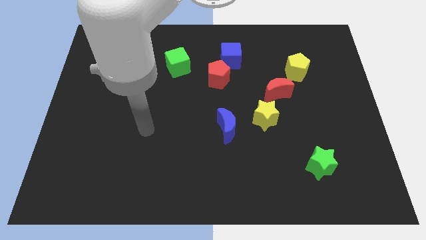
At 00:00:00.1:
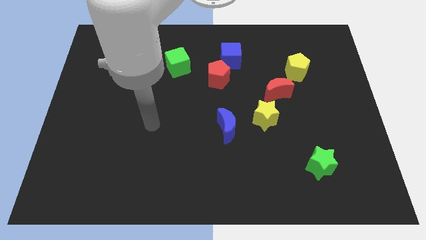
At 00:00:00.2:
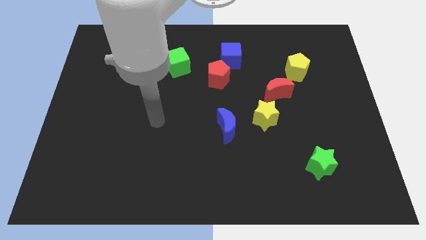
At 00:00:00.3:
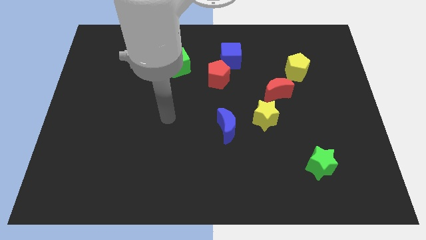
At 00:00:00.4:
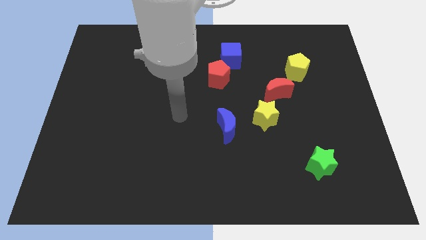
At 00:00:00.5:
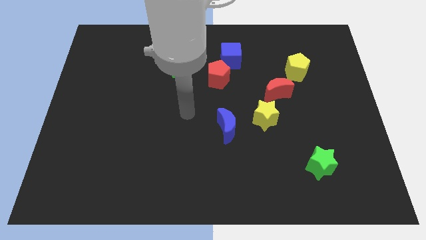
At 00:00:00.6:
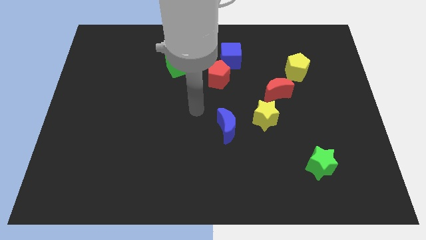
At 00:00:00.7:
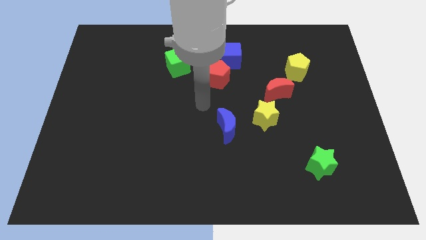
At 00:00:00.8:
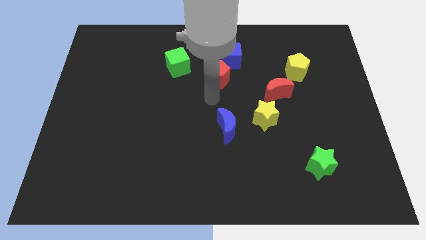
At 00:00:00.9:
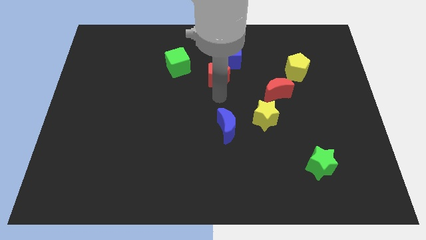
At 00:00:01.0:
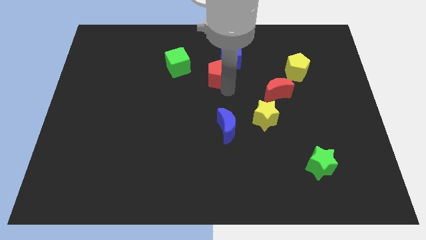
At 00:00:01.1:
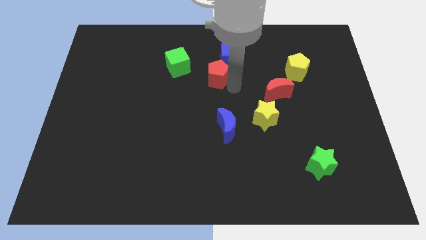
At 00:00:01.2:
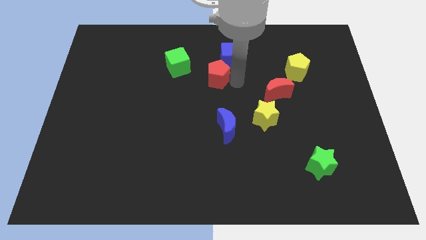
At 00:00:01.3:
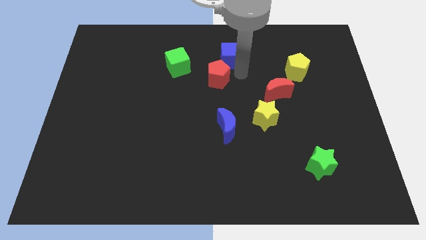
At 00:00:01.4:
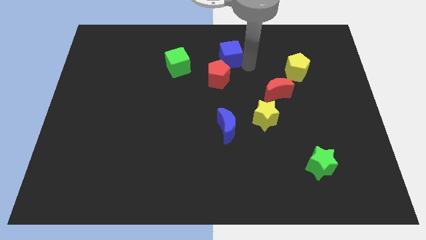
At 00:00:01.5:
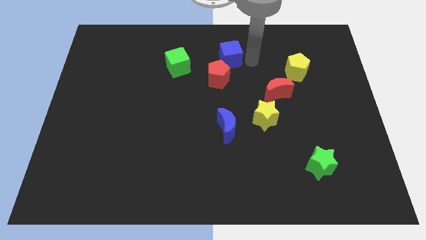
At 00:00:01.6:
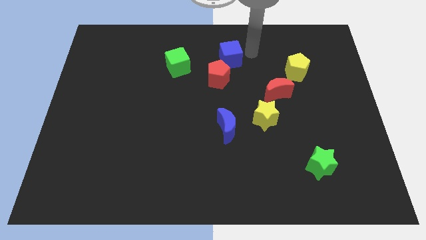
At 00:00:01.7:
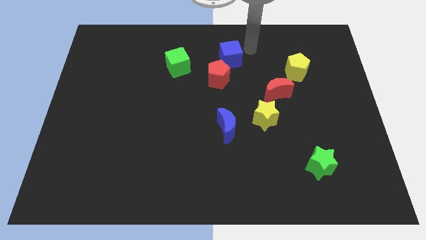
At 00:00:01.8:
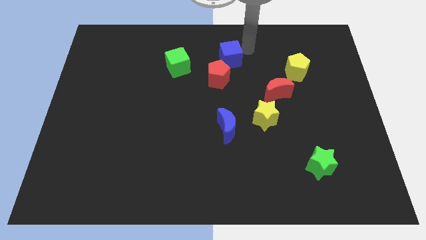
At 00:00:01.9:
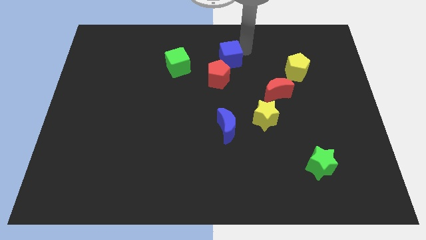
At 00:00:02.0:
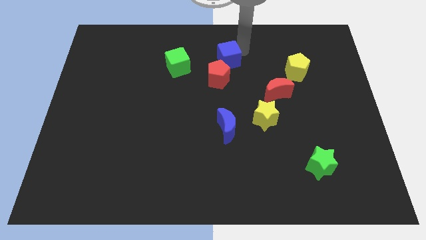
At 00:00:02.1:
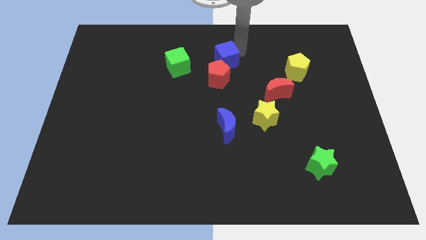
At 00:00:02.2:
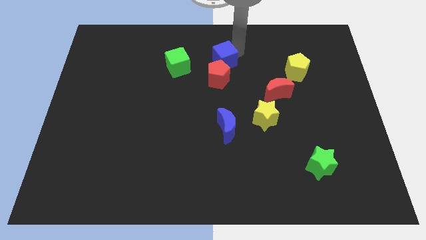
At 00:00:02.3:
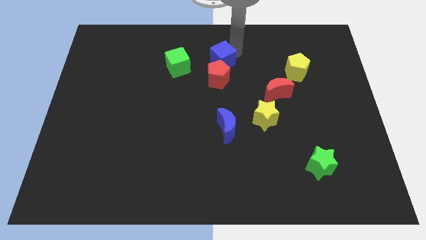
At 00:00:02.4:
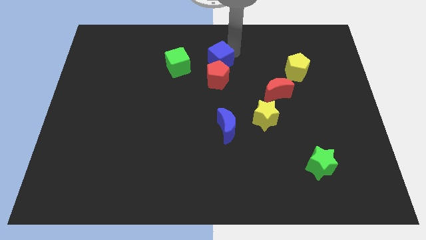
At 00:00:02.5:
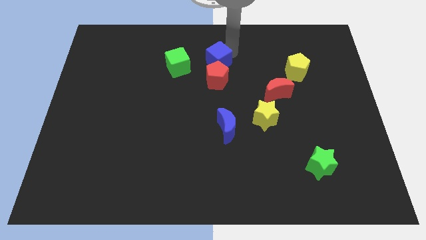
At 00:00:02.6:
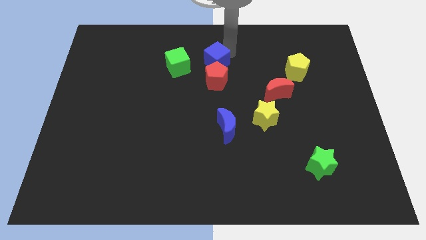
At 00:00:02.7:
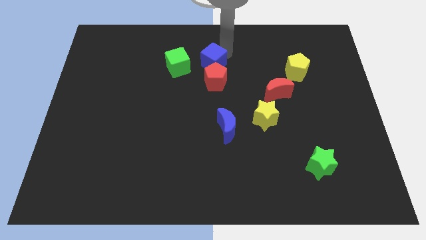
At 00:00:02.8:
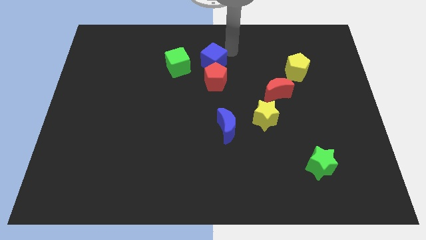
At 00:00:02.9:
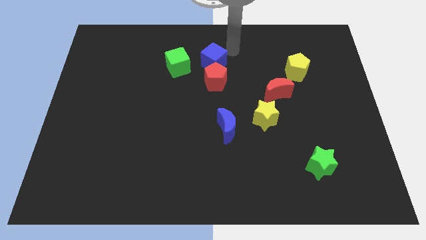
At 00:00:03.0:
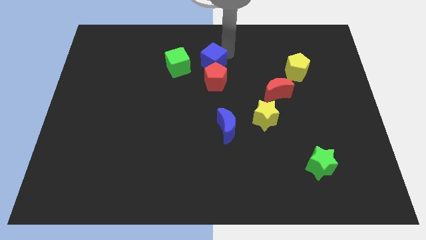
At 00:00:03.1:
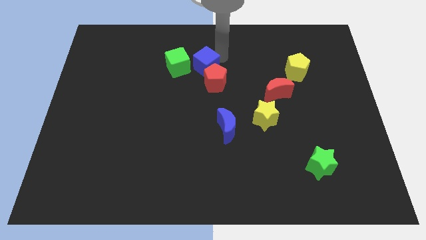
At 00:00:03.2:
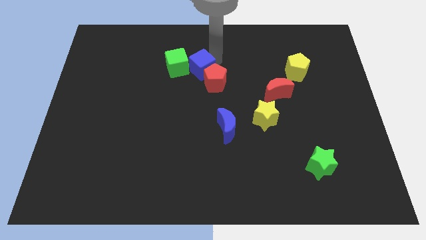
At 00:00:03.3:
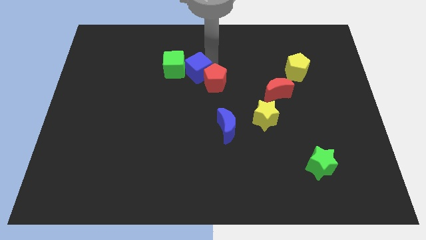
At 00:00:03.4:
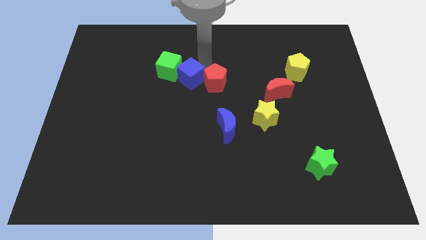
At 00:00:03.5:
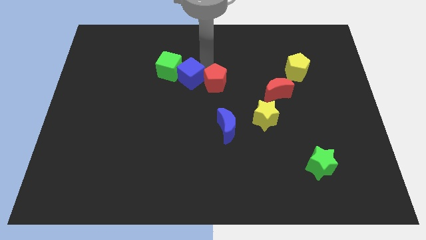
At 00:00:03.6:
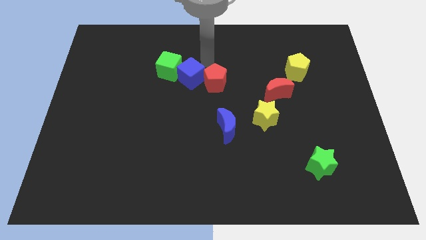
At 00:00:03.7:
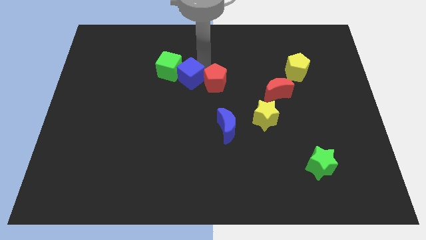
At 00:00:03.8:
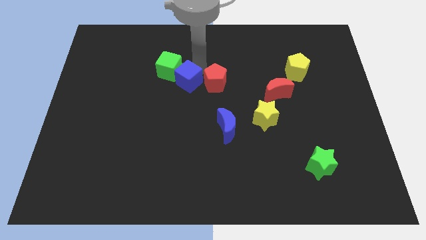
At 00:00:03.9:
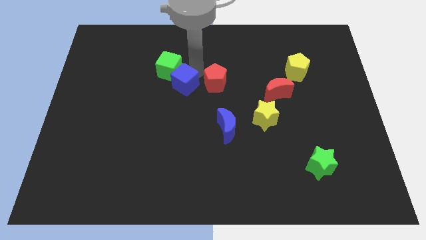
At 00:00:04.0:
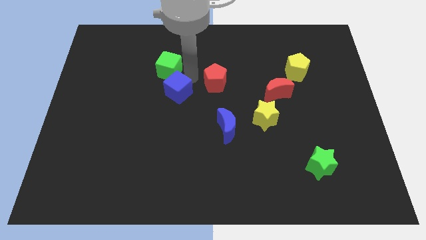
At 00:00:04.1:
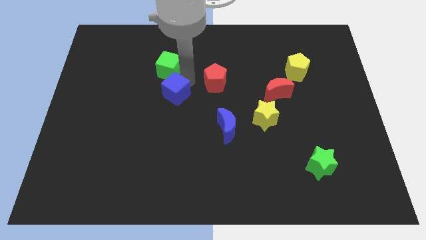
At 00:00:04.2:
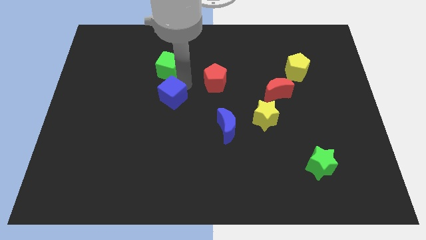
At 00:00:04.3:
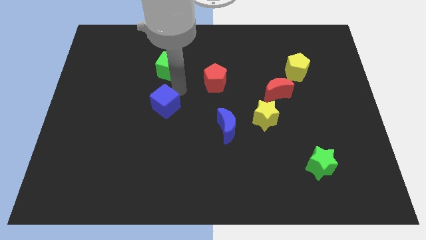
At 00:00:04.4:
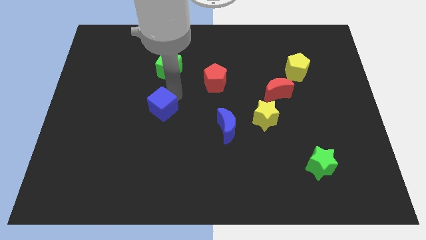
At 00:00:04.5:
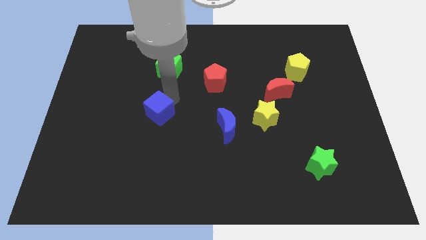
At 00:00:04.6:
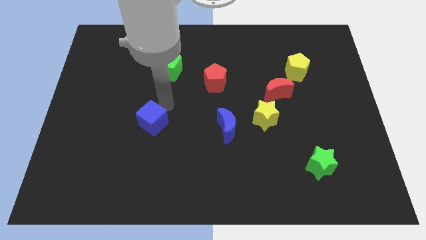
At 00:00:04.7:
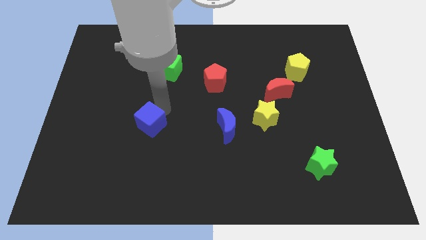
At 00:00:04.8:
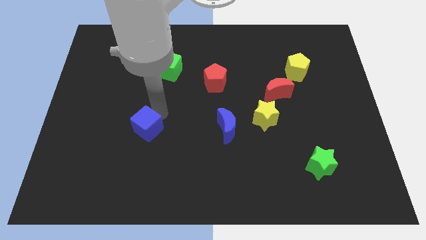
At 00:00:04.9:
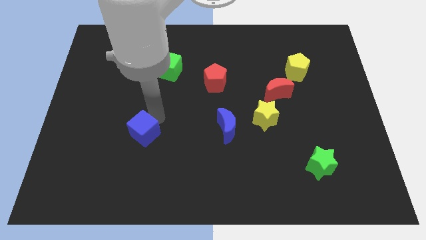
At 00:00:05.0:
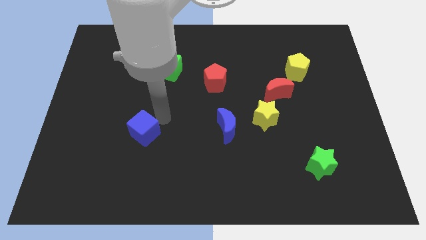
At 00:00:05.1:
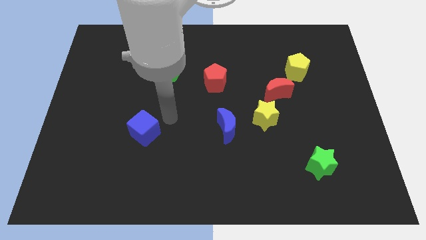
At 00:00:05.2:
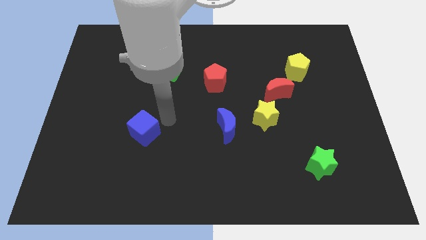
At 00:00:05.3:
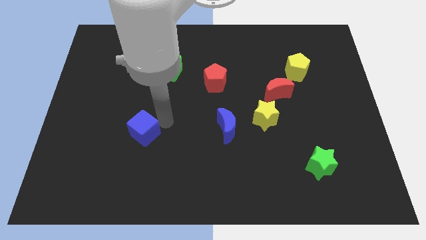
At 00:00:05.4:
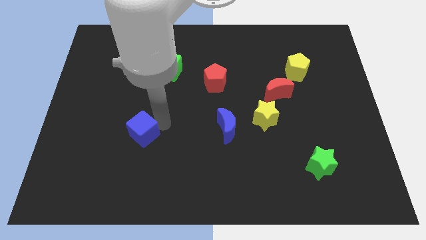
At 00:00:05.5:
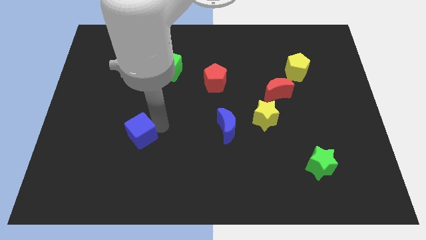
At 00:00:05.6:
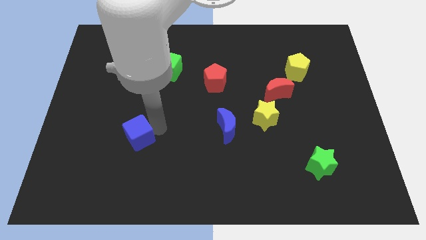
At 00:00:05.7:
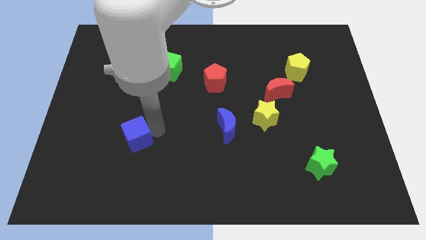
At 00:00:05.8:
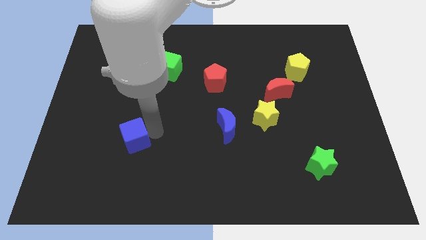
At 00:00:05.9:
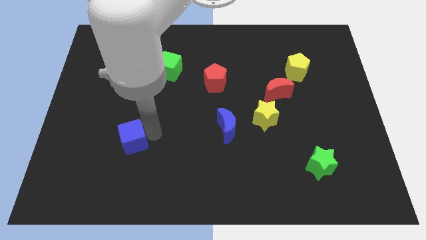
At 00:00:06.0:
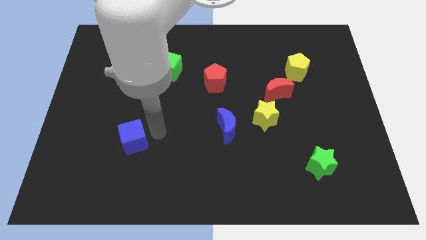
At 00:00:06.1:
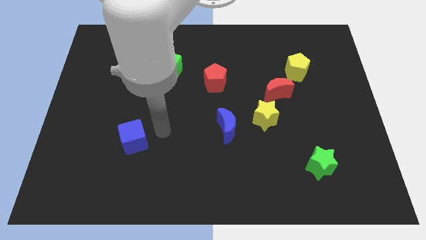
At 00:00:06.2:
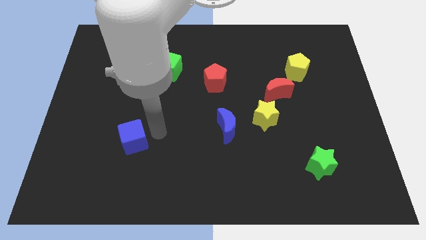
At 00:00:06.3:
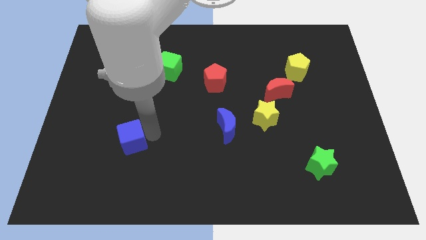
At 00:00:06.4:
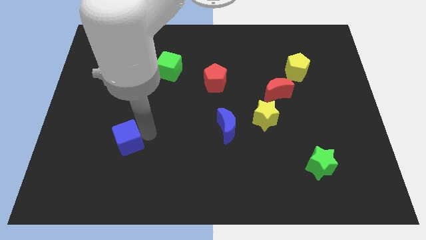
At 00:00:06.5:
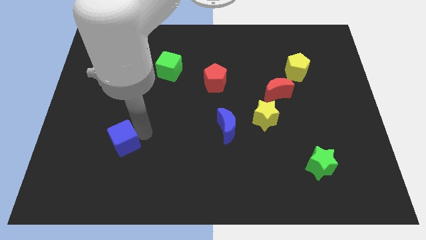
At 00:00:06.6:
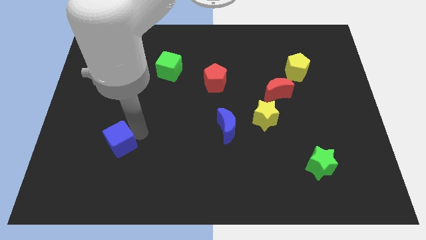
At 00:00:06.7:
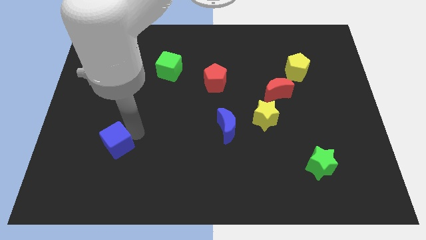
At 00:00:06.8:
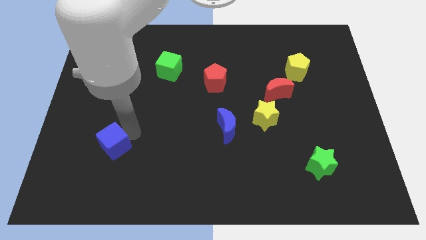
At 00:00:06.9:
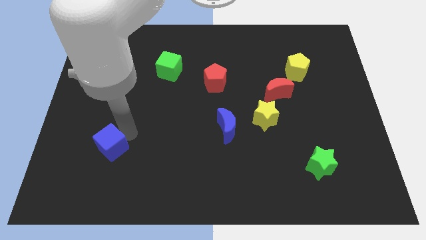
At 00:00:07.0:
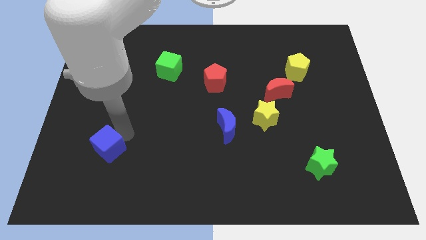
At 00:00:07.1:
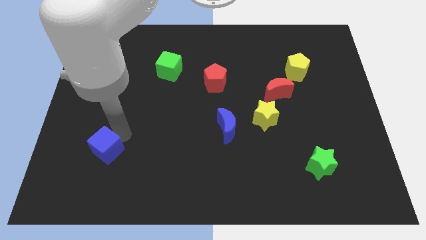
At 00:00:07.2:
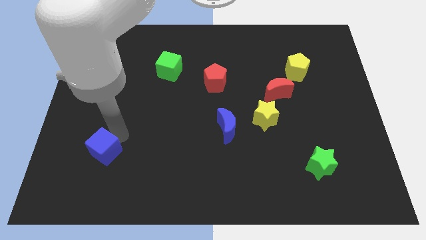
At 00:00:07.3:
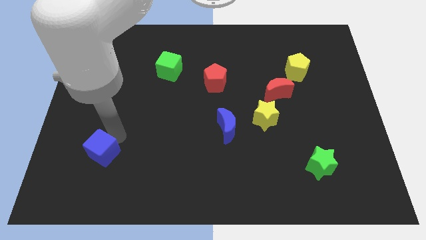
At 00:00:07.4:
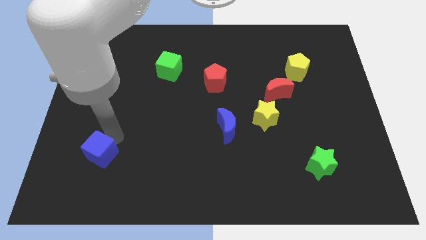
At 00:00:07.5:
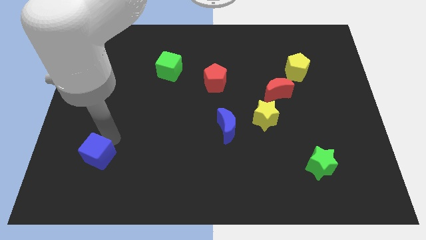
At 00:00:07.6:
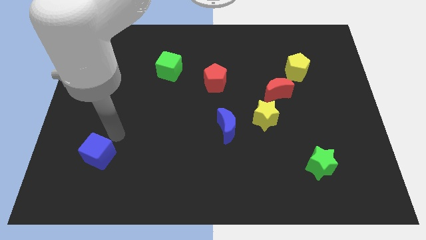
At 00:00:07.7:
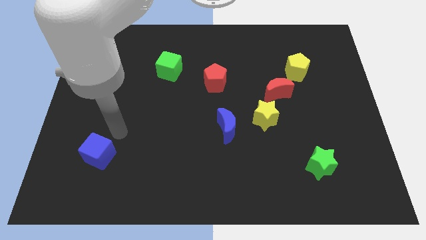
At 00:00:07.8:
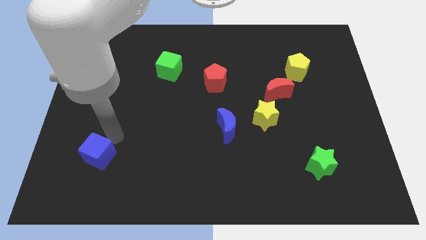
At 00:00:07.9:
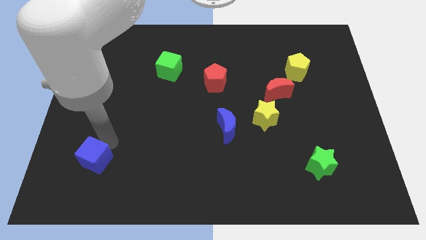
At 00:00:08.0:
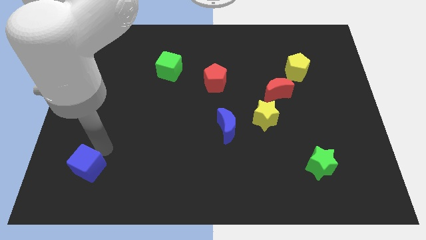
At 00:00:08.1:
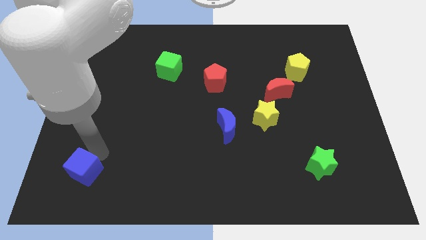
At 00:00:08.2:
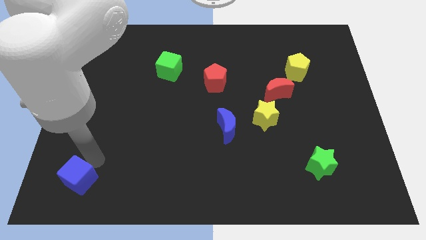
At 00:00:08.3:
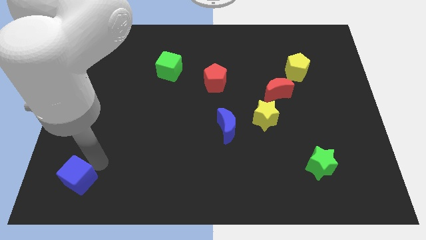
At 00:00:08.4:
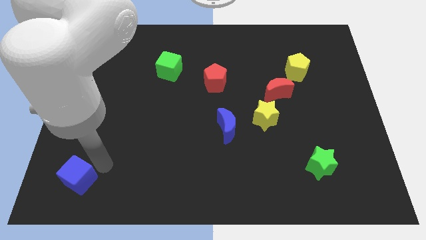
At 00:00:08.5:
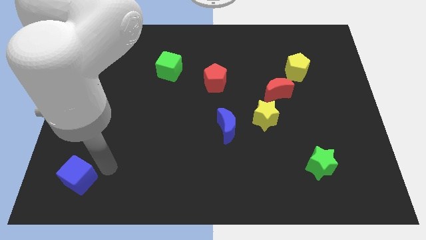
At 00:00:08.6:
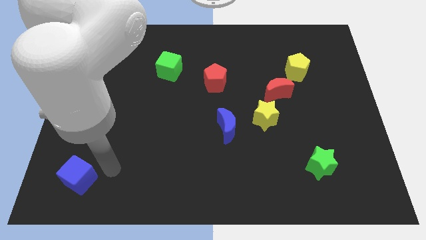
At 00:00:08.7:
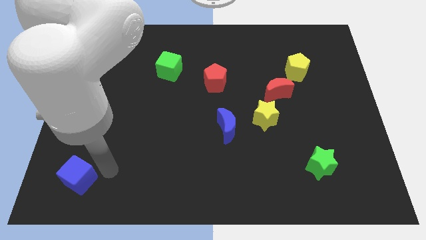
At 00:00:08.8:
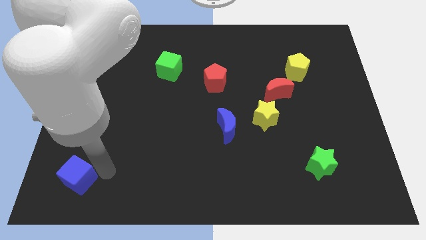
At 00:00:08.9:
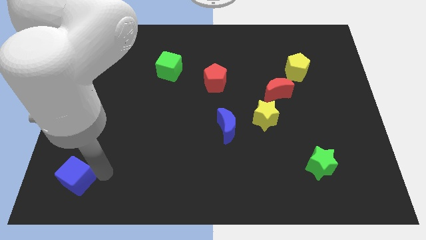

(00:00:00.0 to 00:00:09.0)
push the blue cube to the bottom left corner
